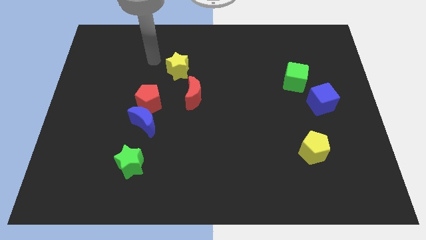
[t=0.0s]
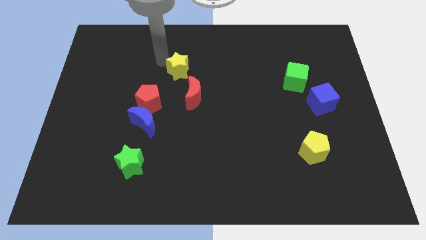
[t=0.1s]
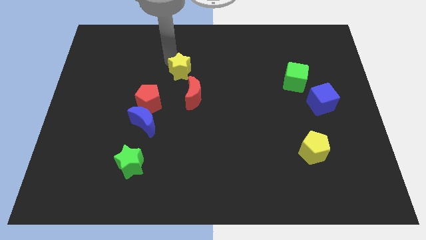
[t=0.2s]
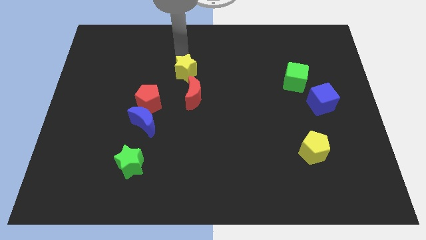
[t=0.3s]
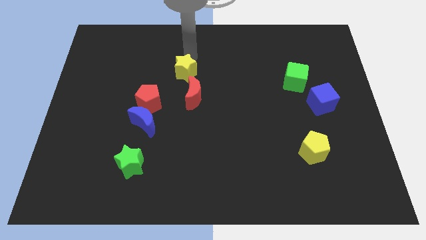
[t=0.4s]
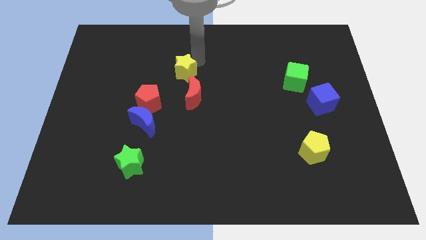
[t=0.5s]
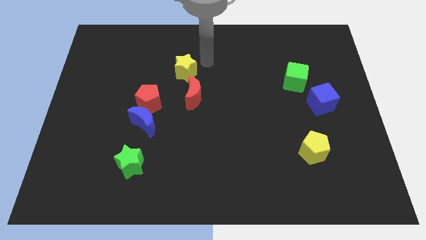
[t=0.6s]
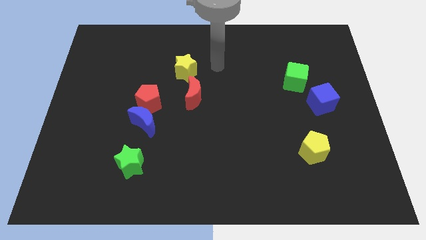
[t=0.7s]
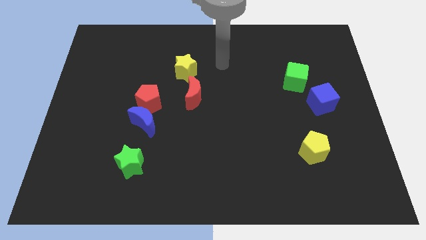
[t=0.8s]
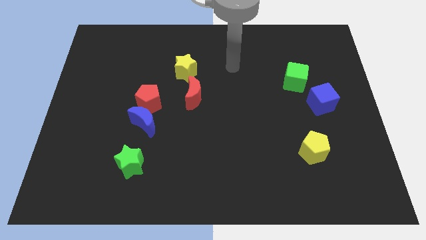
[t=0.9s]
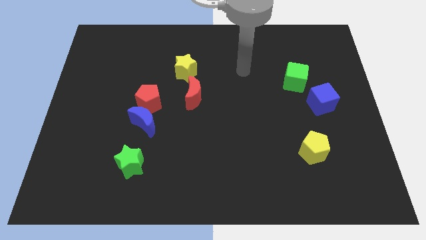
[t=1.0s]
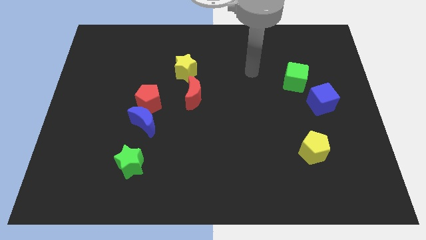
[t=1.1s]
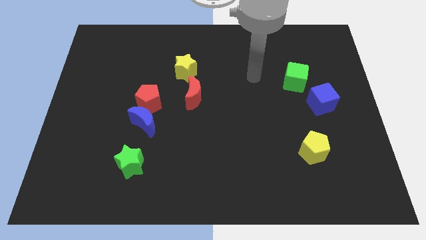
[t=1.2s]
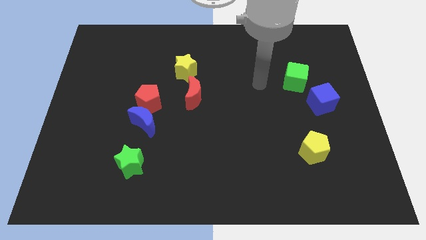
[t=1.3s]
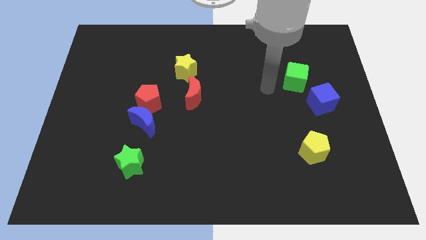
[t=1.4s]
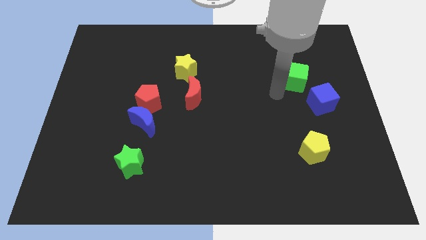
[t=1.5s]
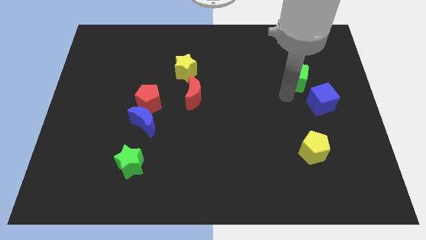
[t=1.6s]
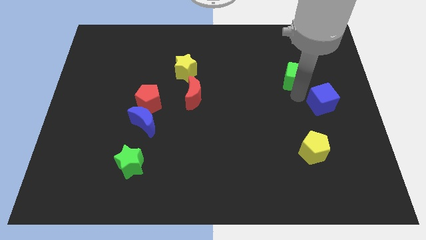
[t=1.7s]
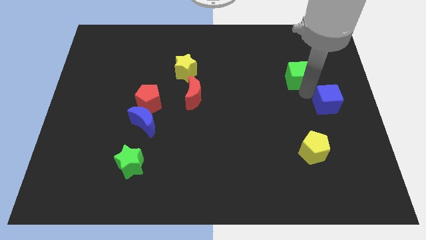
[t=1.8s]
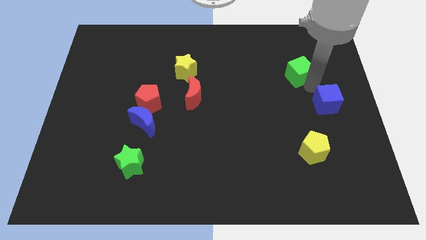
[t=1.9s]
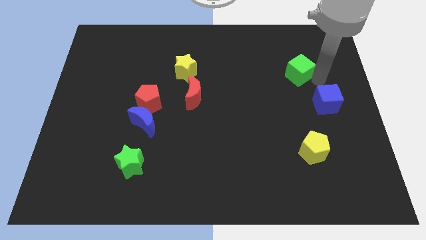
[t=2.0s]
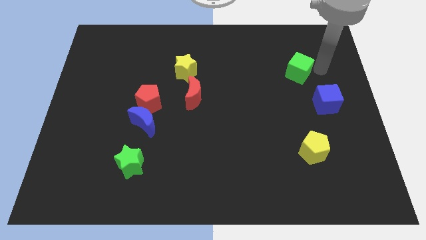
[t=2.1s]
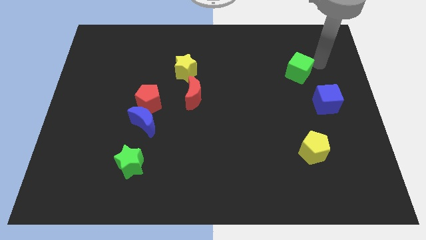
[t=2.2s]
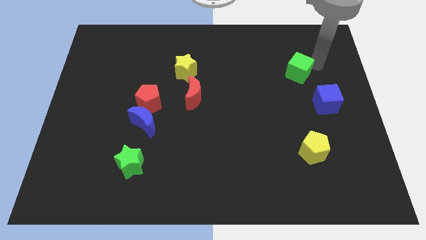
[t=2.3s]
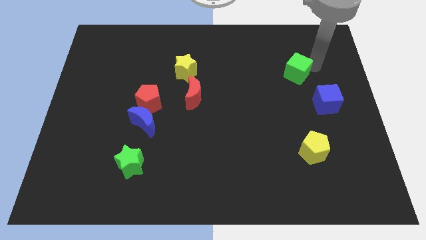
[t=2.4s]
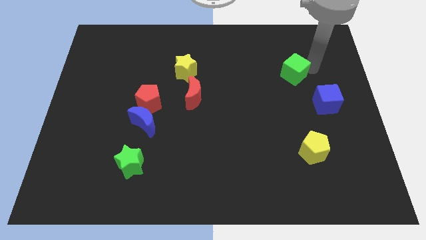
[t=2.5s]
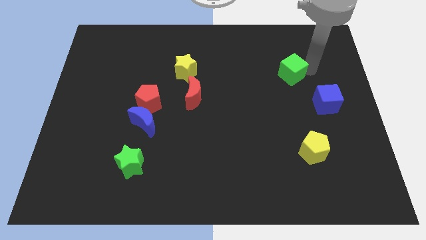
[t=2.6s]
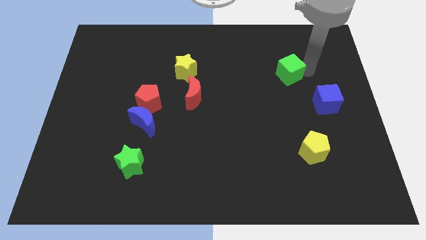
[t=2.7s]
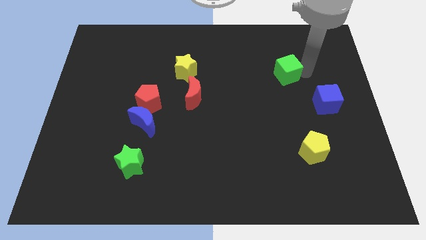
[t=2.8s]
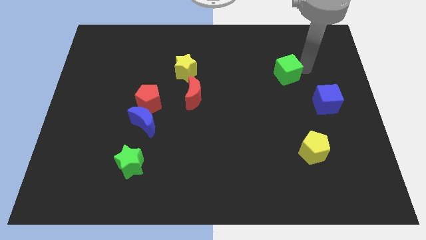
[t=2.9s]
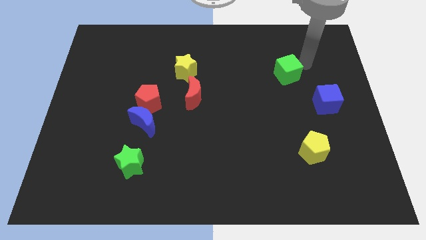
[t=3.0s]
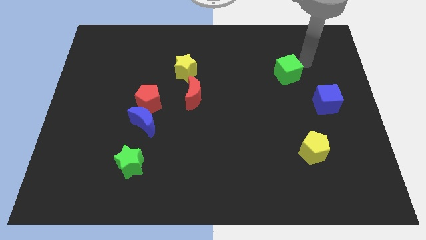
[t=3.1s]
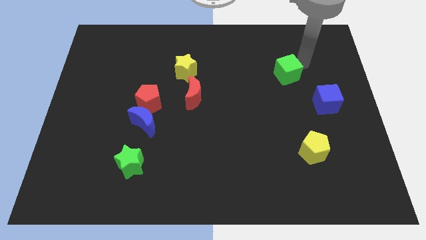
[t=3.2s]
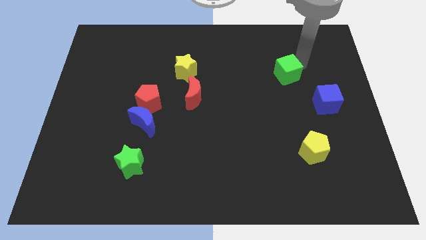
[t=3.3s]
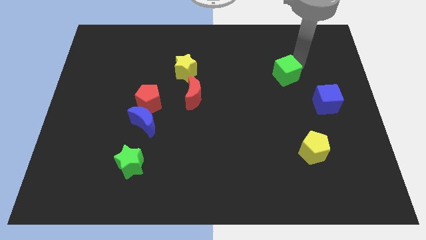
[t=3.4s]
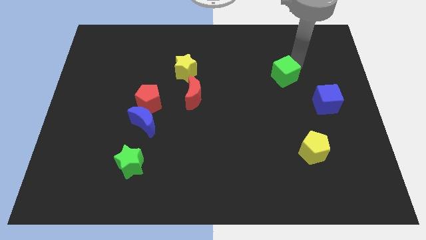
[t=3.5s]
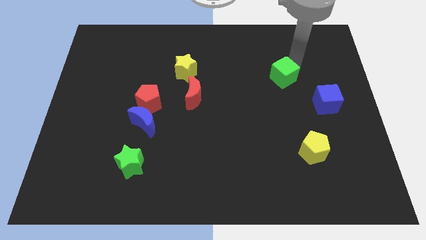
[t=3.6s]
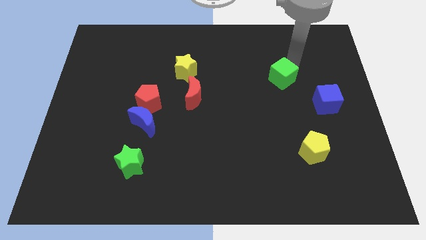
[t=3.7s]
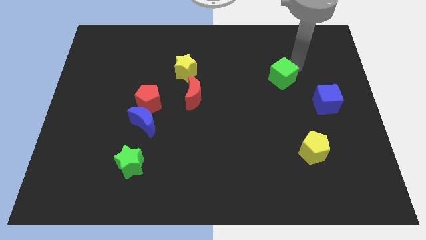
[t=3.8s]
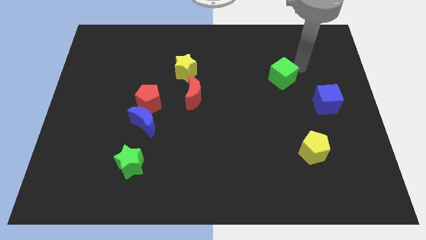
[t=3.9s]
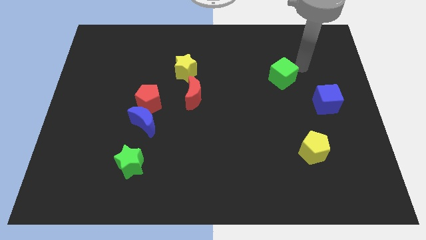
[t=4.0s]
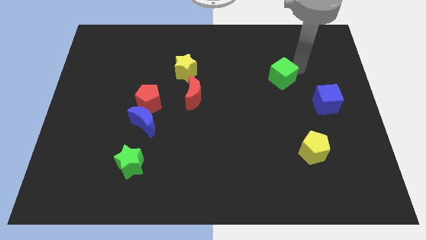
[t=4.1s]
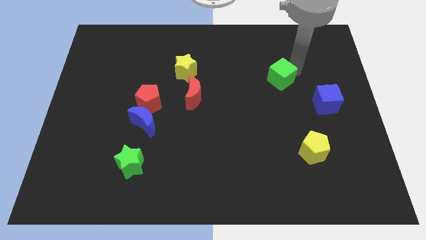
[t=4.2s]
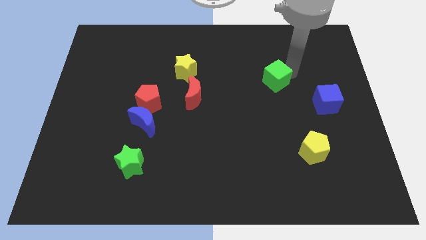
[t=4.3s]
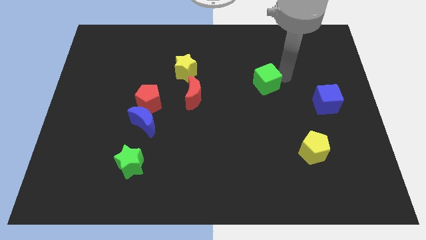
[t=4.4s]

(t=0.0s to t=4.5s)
move the green cube somewhat left

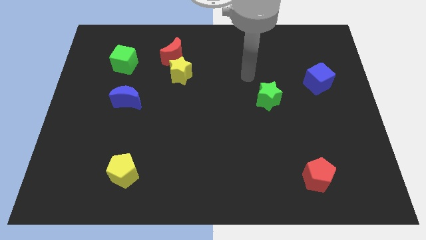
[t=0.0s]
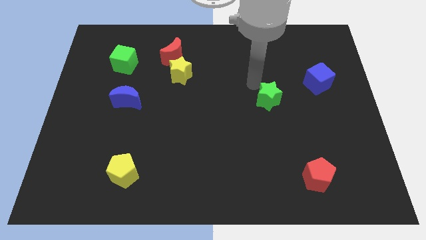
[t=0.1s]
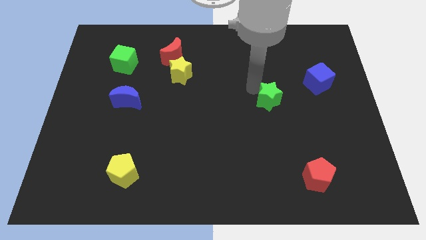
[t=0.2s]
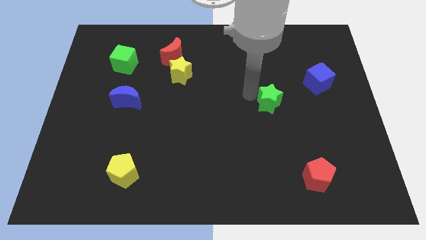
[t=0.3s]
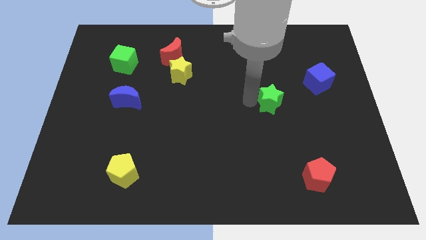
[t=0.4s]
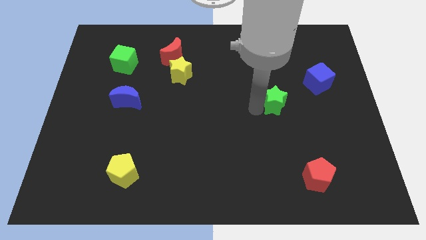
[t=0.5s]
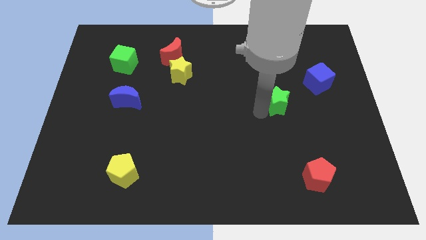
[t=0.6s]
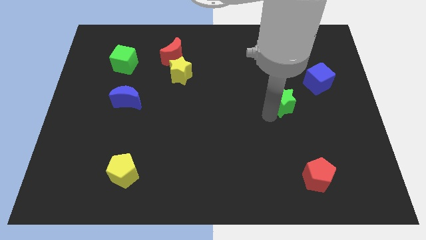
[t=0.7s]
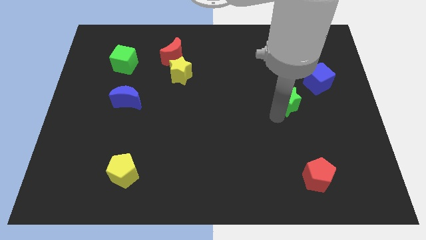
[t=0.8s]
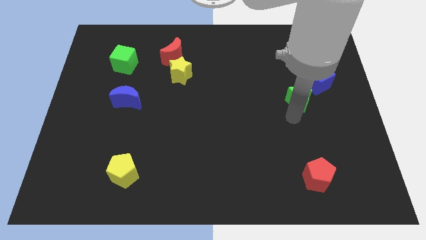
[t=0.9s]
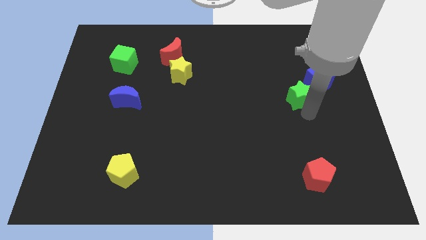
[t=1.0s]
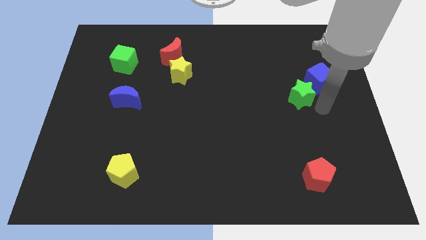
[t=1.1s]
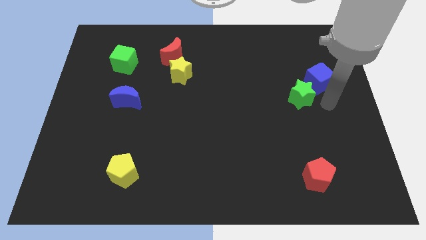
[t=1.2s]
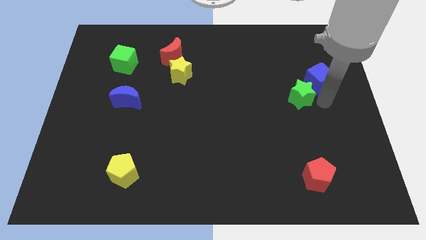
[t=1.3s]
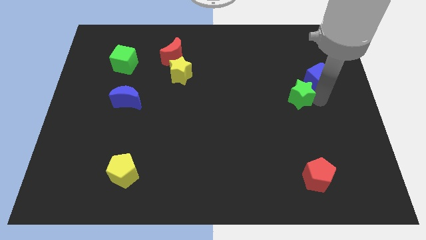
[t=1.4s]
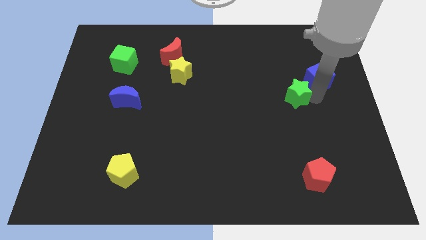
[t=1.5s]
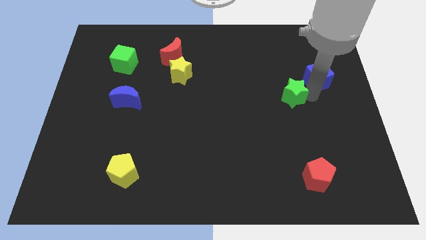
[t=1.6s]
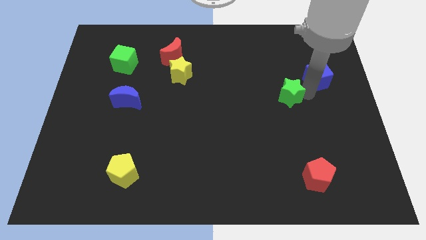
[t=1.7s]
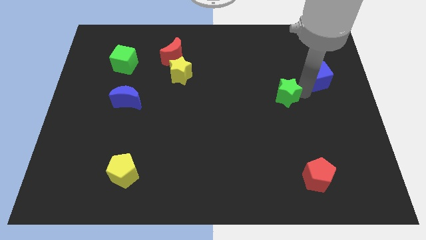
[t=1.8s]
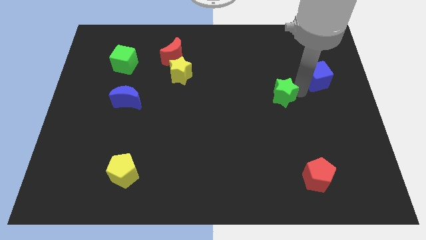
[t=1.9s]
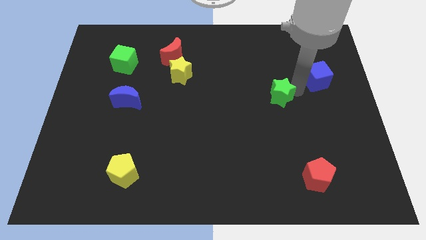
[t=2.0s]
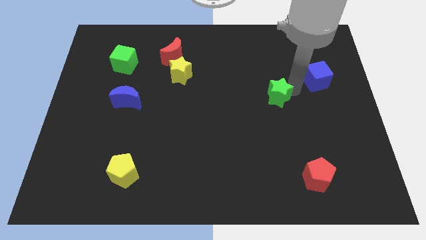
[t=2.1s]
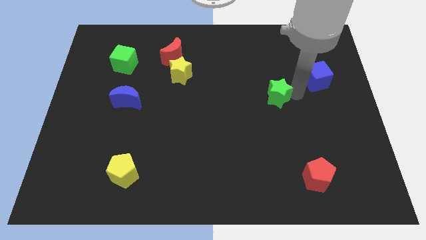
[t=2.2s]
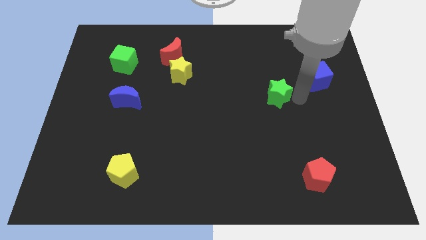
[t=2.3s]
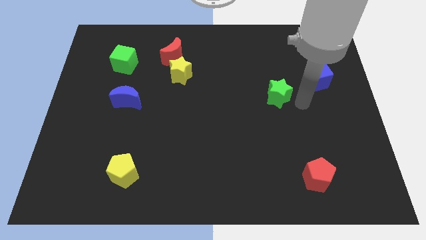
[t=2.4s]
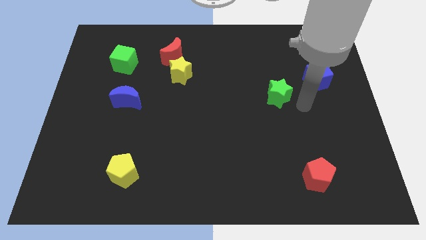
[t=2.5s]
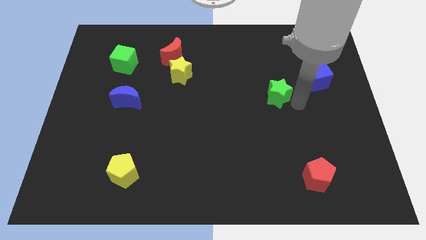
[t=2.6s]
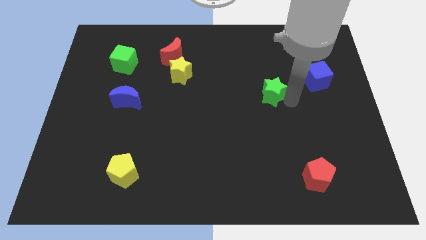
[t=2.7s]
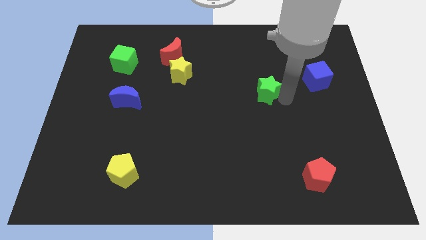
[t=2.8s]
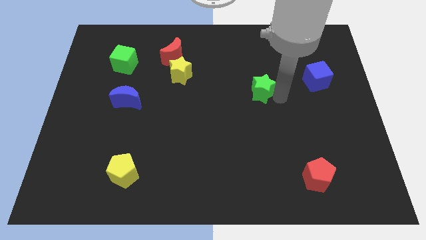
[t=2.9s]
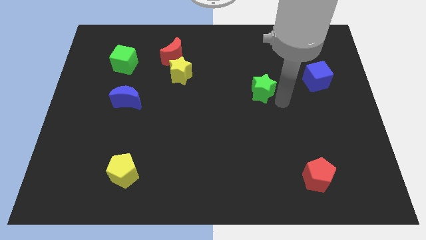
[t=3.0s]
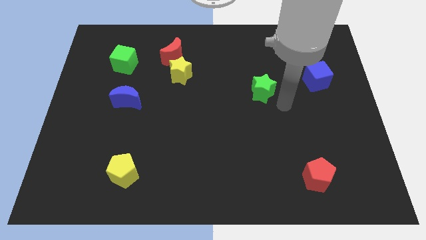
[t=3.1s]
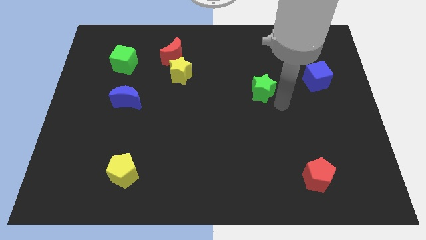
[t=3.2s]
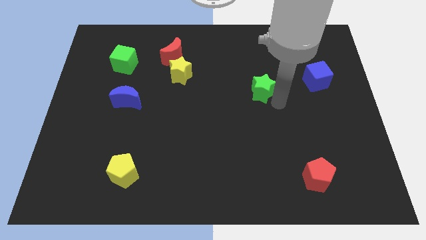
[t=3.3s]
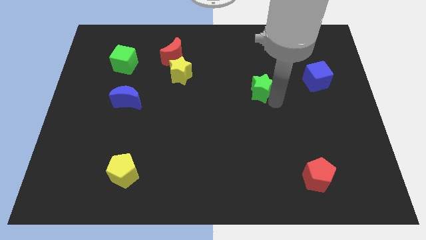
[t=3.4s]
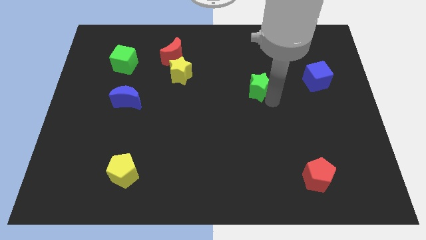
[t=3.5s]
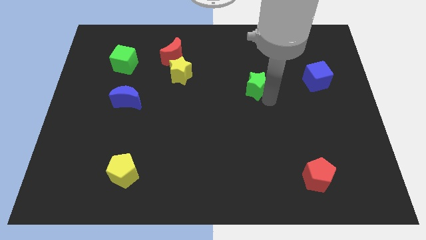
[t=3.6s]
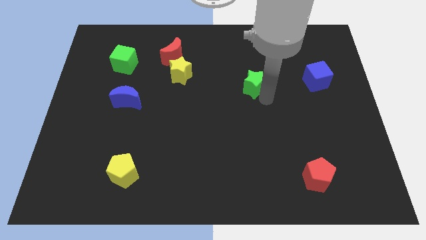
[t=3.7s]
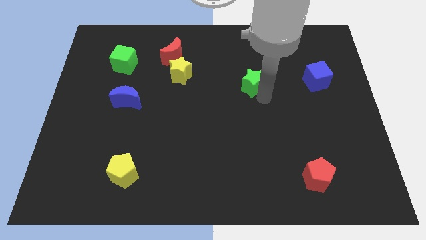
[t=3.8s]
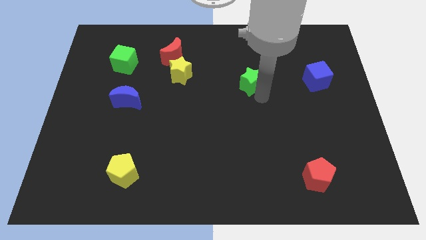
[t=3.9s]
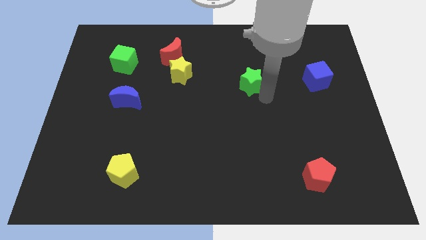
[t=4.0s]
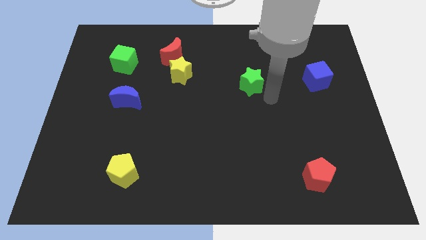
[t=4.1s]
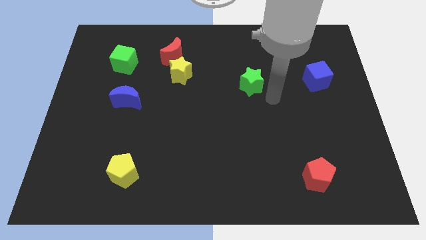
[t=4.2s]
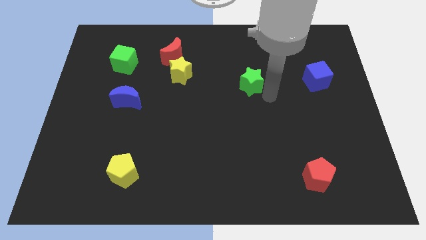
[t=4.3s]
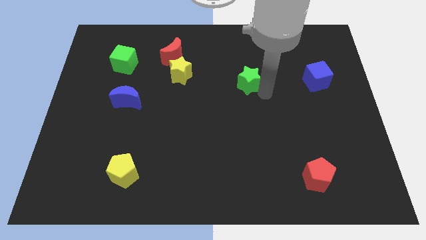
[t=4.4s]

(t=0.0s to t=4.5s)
slightly push the green star up and to the left diagonally
